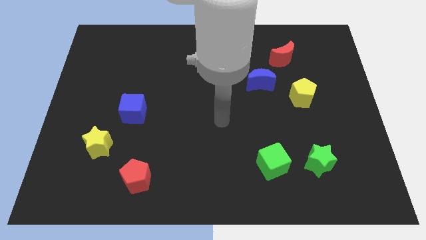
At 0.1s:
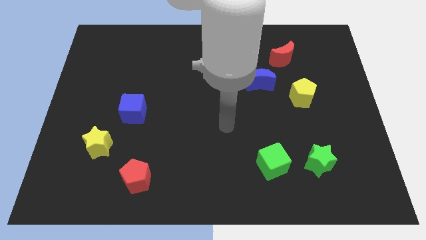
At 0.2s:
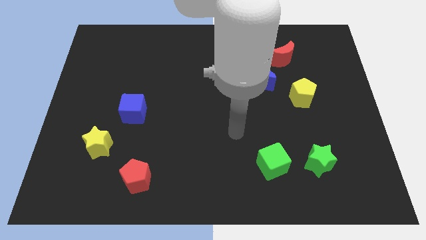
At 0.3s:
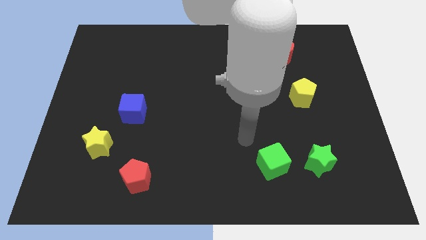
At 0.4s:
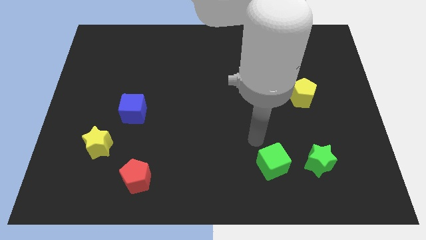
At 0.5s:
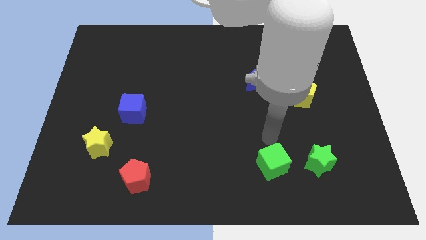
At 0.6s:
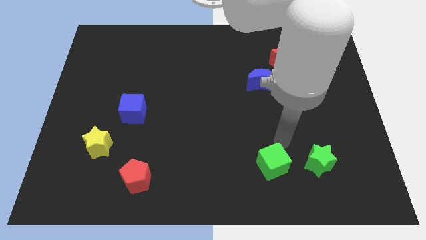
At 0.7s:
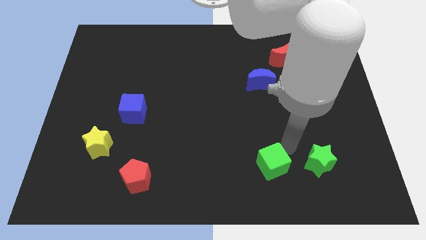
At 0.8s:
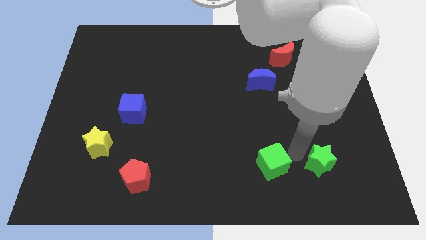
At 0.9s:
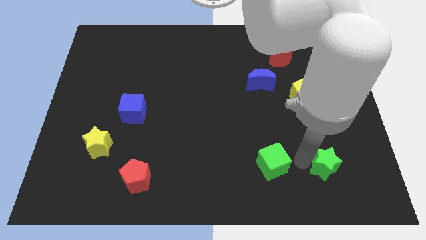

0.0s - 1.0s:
pull the green cube apart from the green star

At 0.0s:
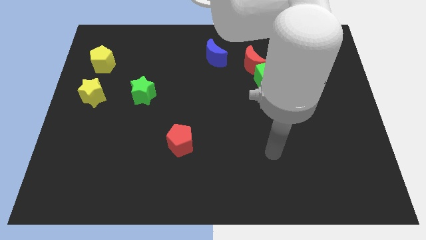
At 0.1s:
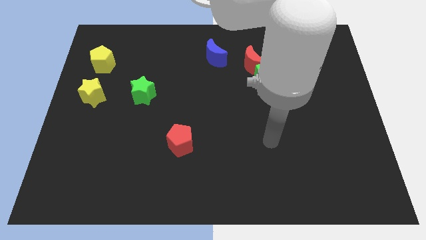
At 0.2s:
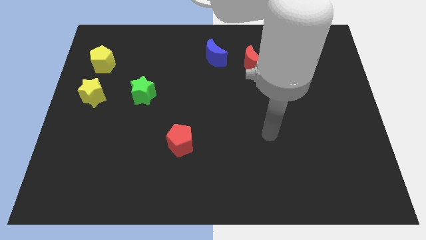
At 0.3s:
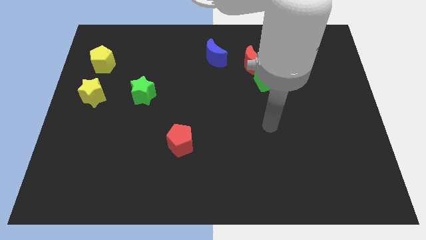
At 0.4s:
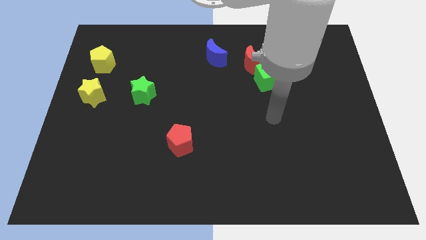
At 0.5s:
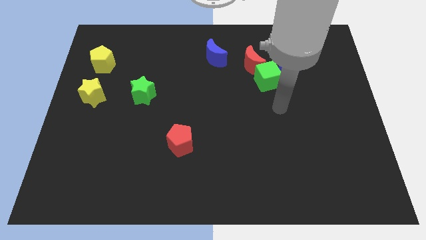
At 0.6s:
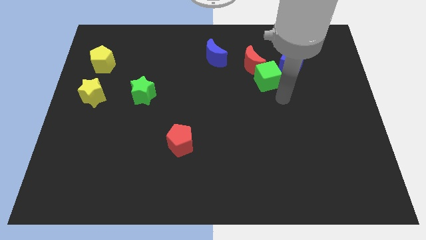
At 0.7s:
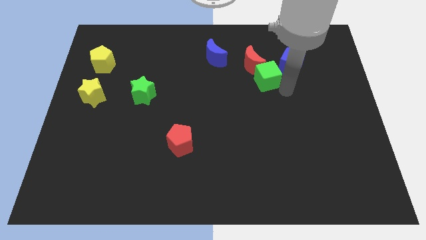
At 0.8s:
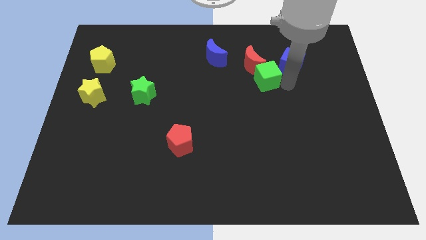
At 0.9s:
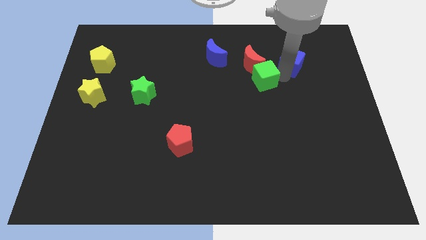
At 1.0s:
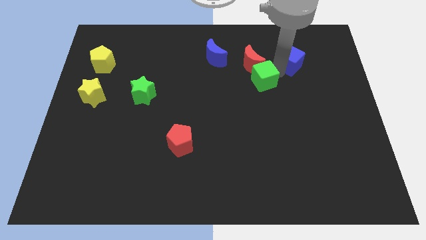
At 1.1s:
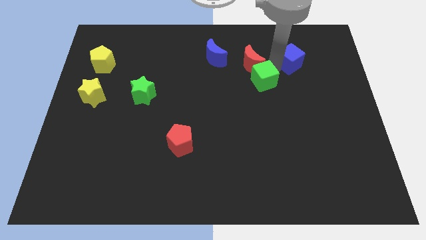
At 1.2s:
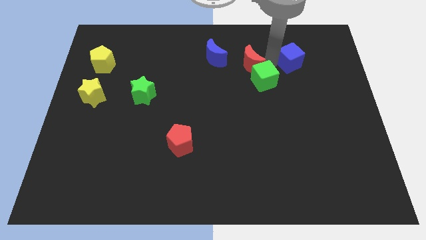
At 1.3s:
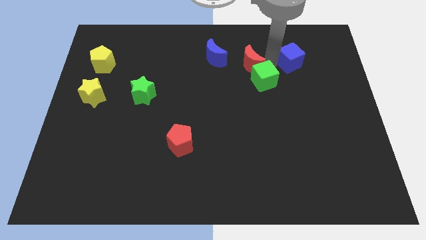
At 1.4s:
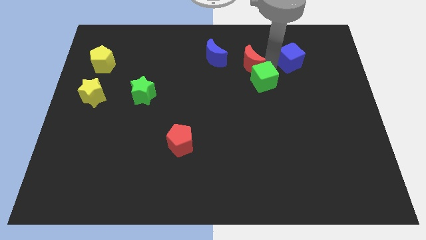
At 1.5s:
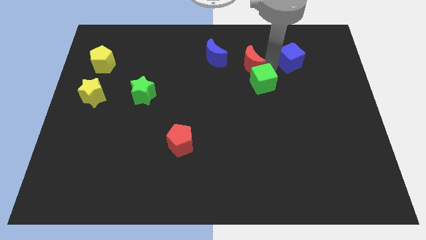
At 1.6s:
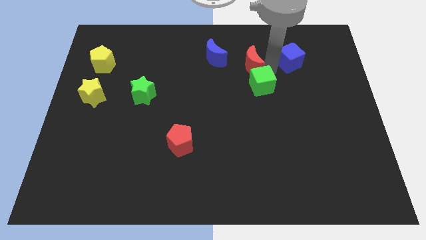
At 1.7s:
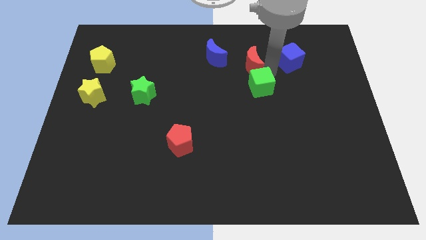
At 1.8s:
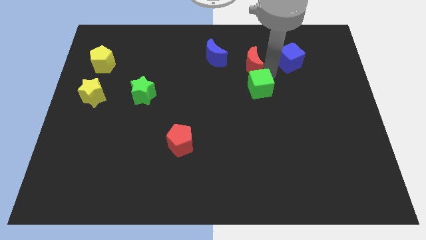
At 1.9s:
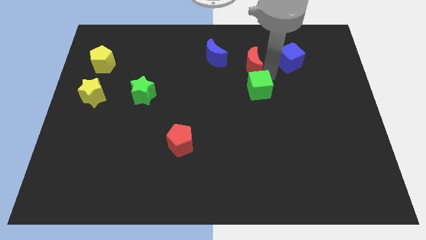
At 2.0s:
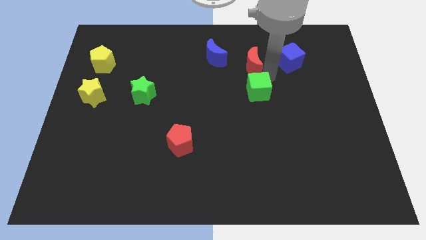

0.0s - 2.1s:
separate the green cube from the red moon and blue cube

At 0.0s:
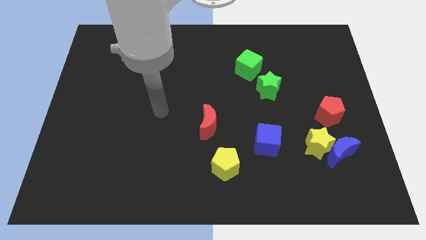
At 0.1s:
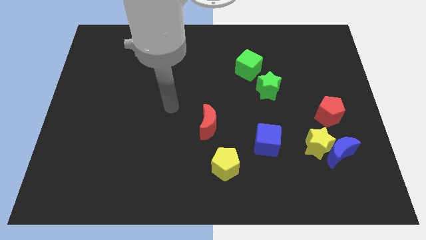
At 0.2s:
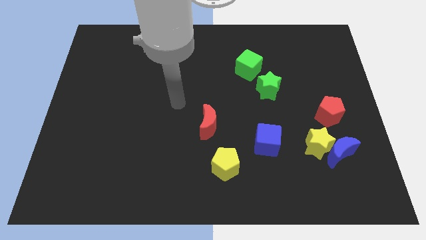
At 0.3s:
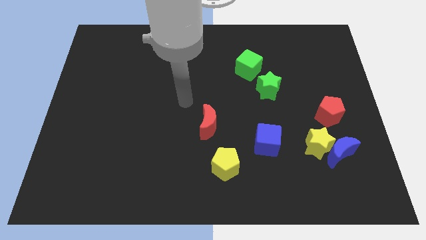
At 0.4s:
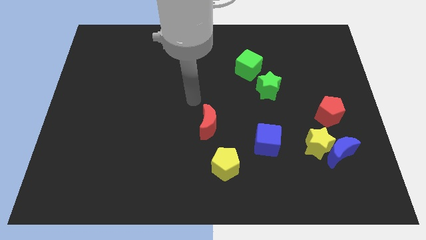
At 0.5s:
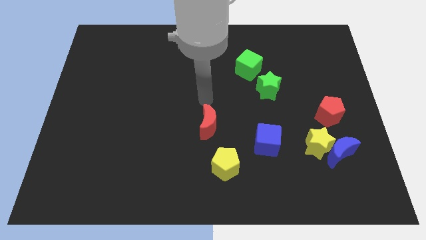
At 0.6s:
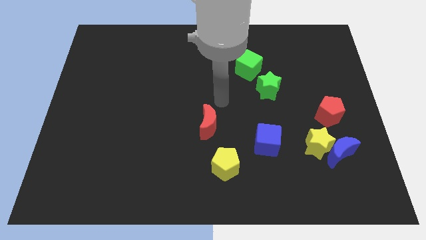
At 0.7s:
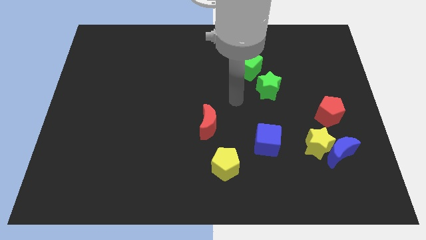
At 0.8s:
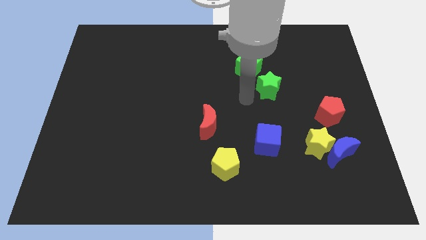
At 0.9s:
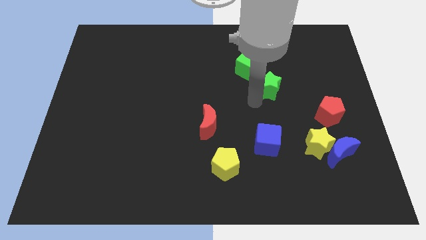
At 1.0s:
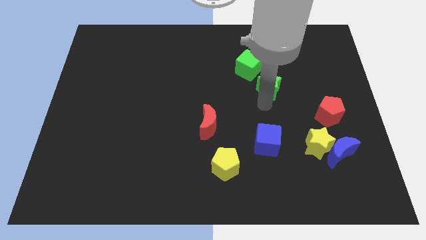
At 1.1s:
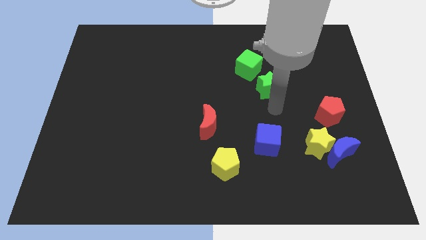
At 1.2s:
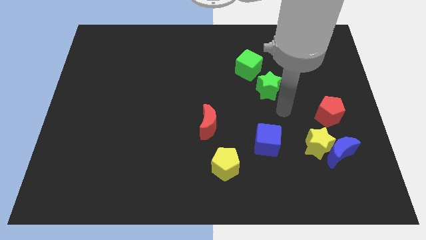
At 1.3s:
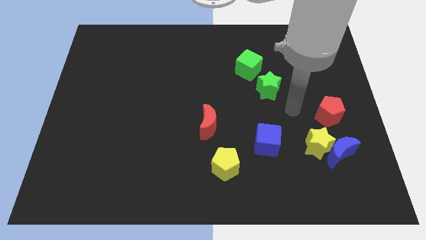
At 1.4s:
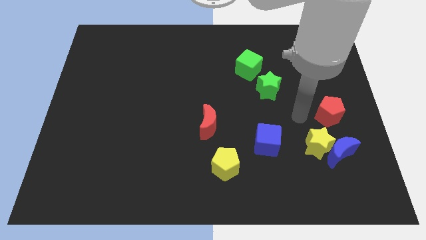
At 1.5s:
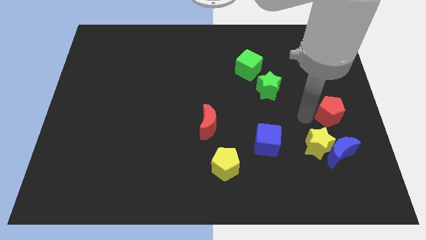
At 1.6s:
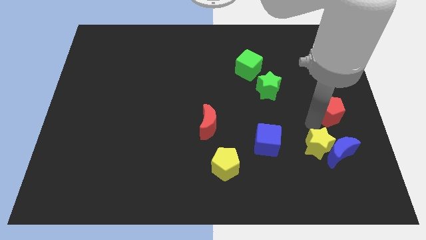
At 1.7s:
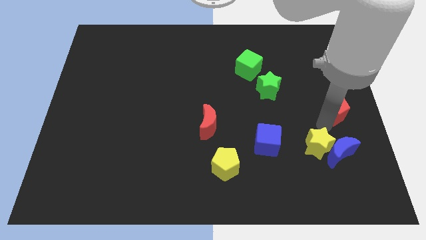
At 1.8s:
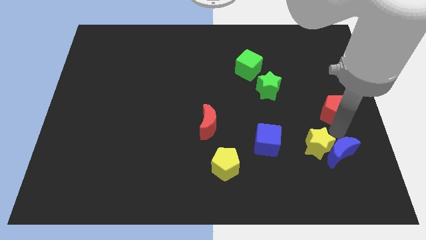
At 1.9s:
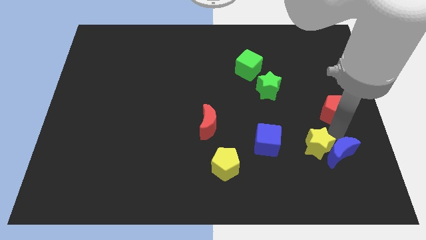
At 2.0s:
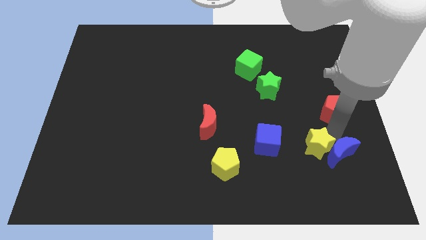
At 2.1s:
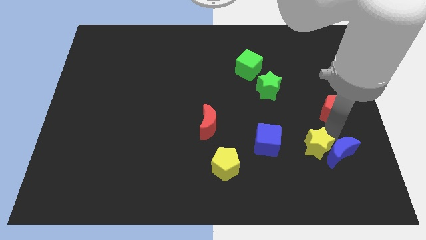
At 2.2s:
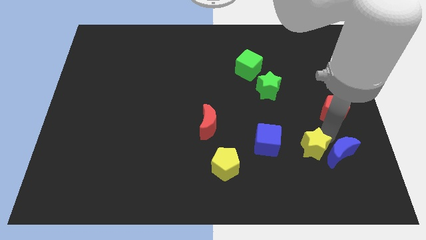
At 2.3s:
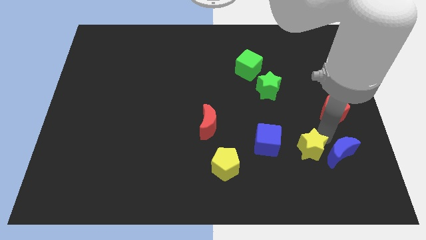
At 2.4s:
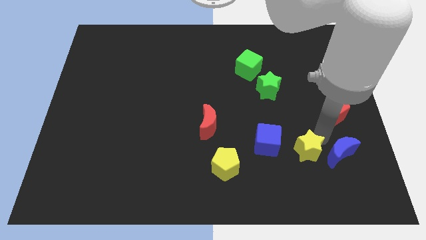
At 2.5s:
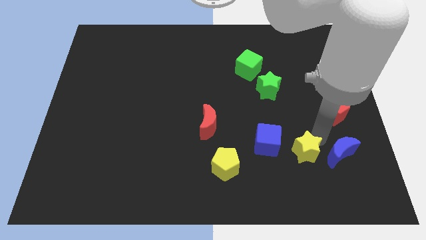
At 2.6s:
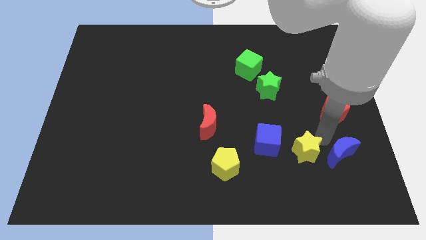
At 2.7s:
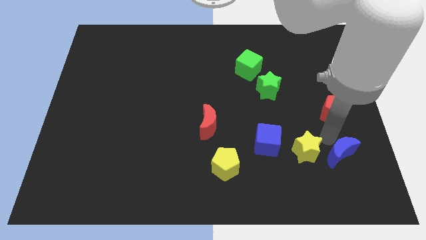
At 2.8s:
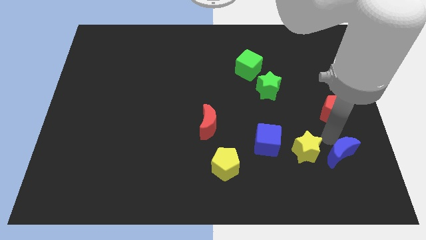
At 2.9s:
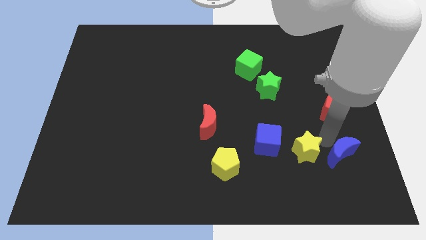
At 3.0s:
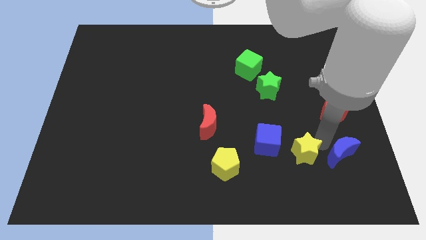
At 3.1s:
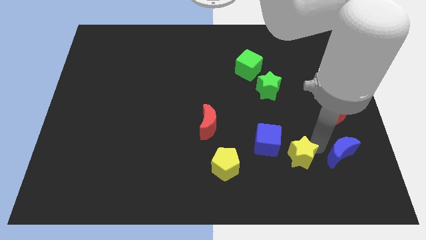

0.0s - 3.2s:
pull the yellow star apart from the blue moon and red pentagon

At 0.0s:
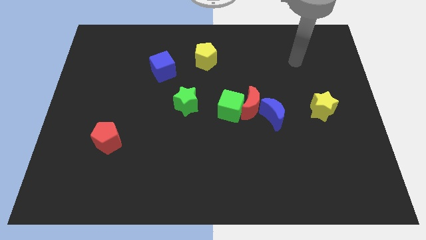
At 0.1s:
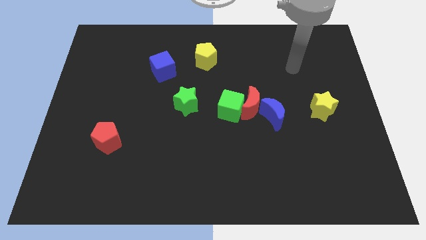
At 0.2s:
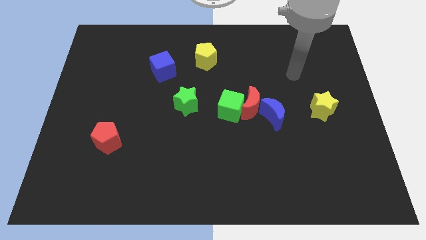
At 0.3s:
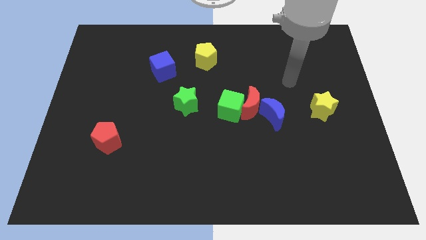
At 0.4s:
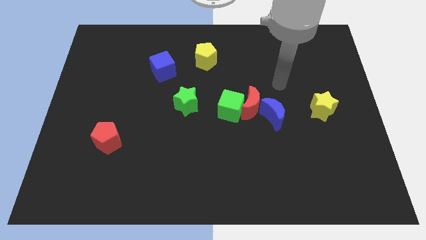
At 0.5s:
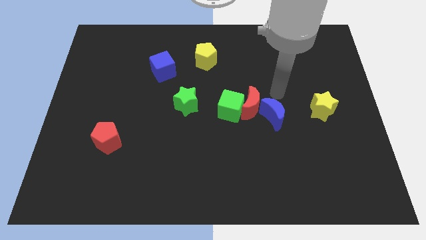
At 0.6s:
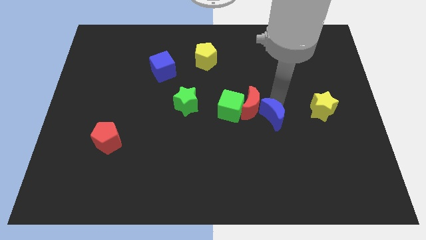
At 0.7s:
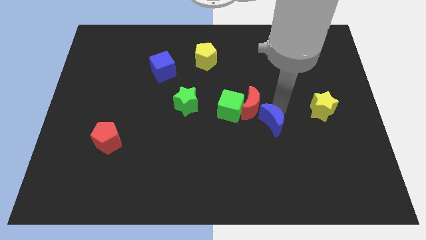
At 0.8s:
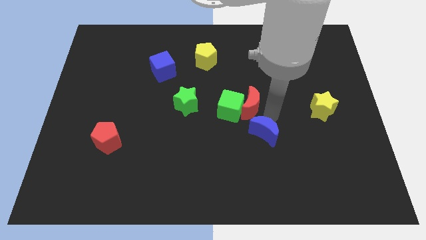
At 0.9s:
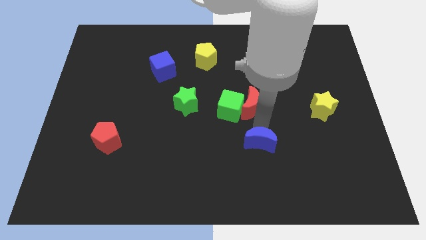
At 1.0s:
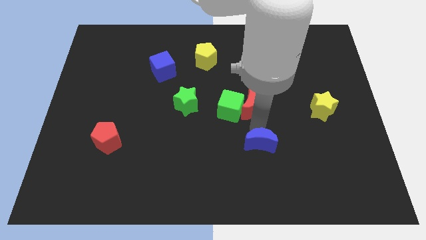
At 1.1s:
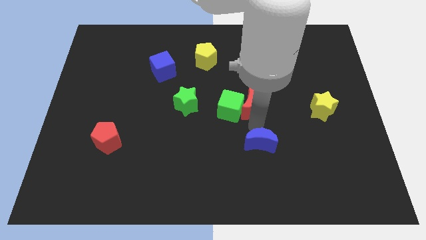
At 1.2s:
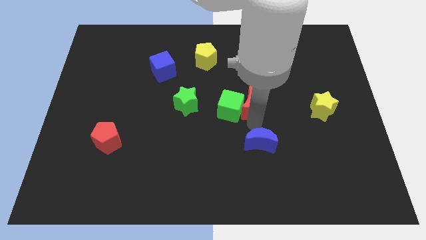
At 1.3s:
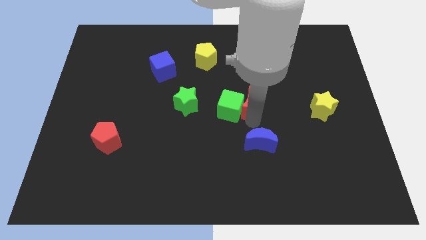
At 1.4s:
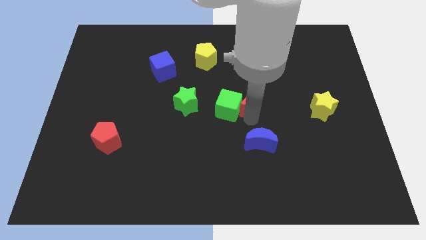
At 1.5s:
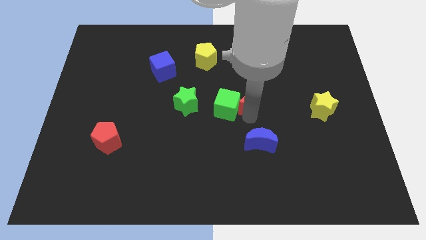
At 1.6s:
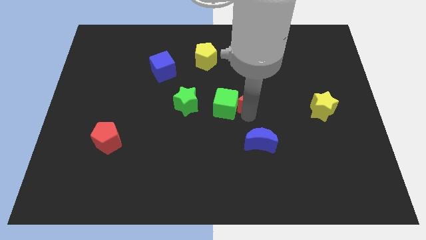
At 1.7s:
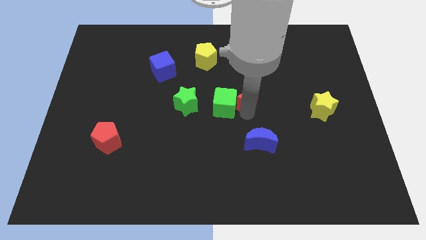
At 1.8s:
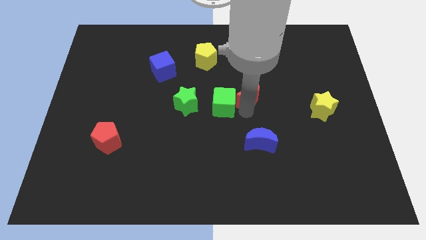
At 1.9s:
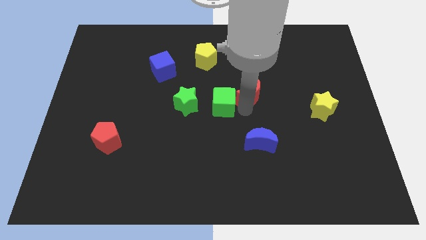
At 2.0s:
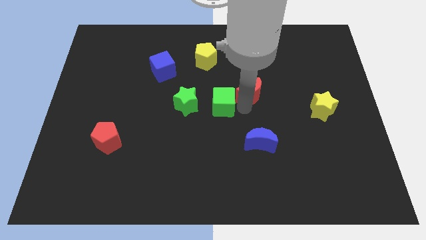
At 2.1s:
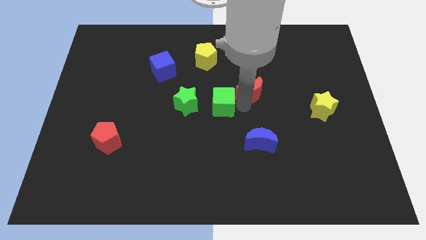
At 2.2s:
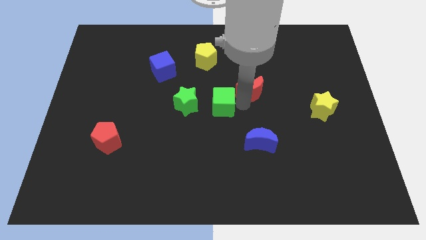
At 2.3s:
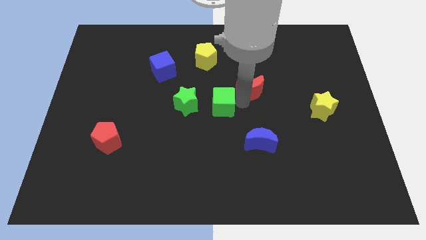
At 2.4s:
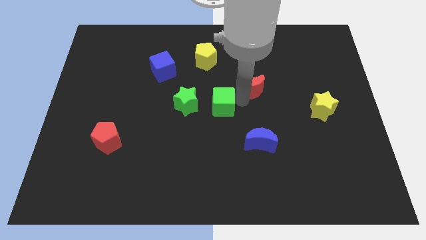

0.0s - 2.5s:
pull the red moon apart from the green cube and blue moon

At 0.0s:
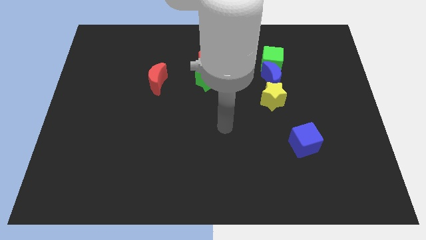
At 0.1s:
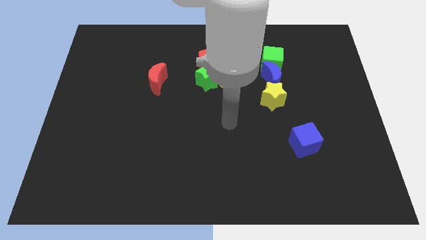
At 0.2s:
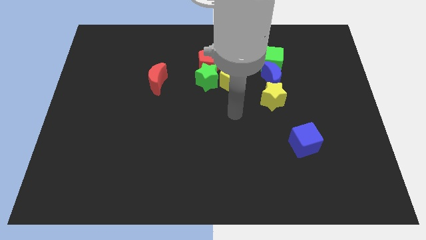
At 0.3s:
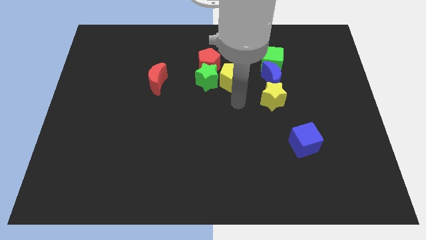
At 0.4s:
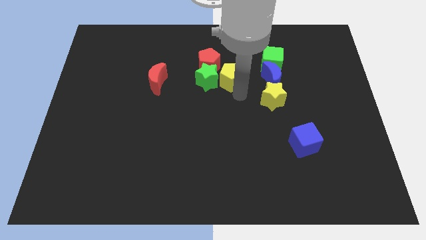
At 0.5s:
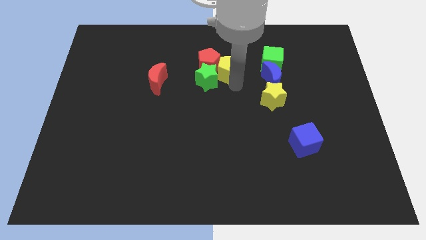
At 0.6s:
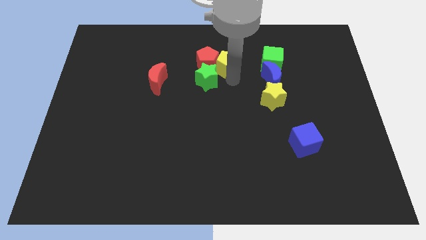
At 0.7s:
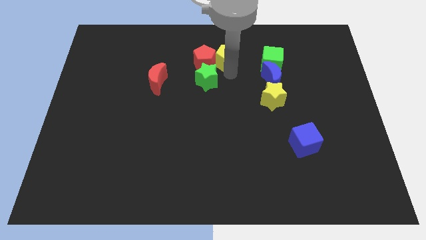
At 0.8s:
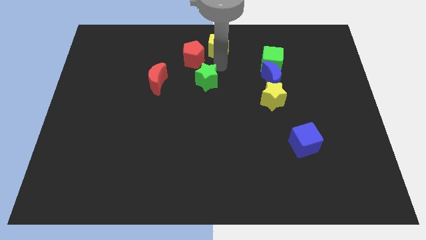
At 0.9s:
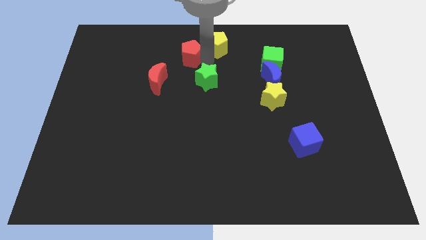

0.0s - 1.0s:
separate the green star from the red pentagon and yellow pentagon
